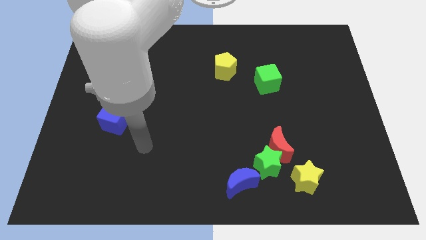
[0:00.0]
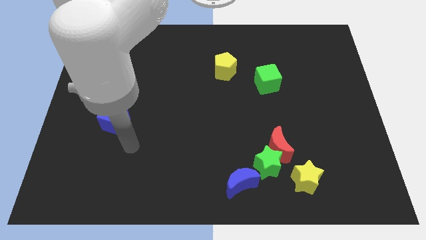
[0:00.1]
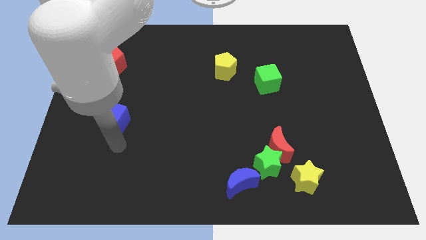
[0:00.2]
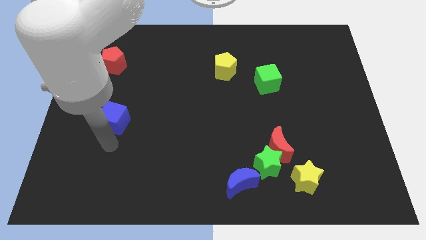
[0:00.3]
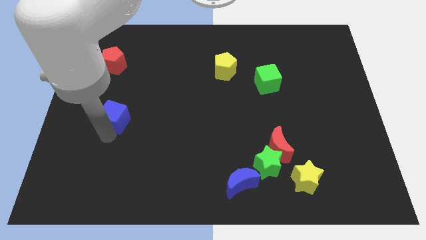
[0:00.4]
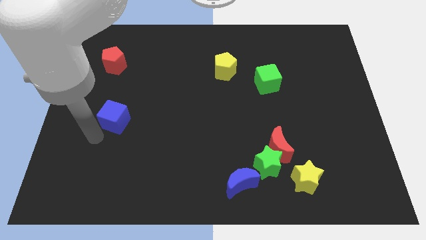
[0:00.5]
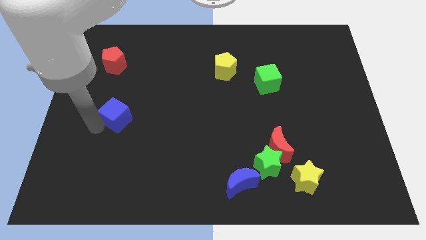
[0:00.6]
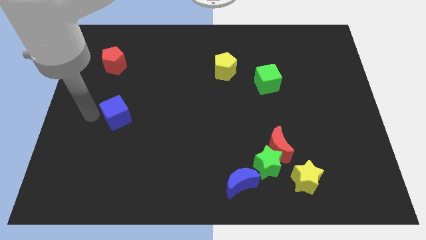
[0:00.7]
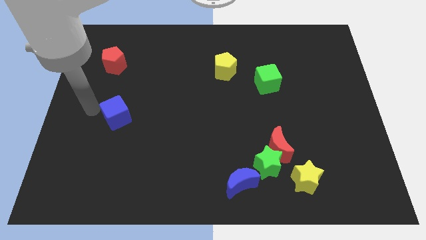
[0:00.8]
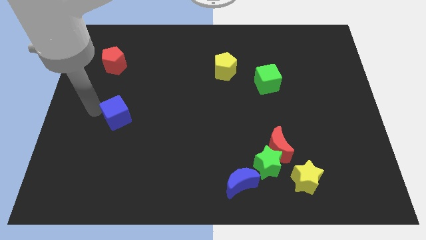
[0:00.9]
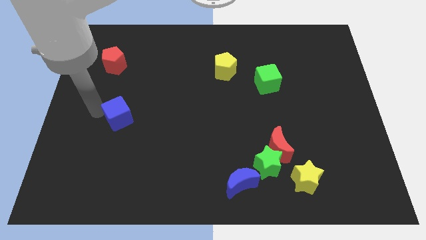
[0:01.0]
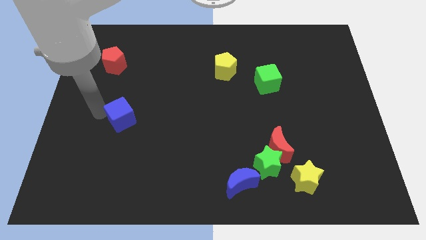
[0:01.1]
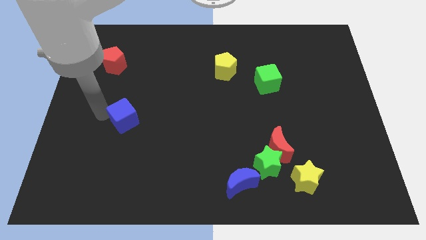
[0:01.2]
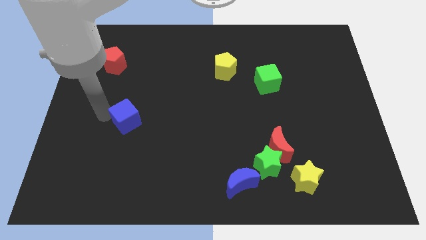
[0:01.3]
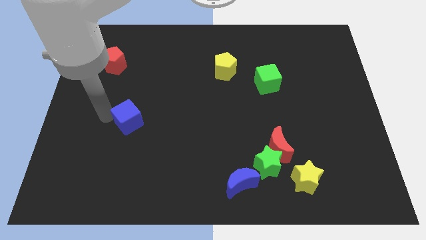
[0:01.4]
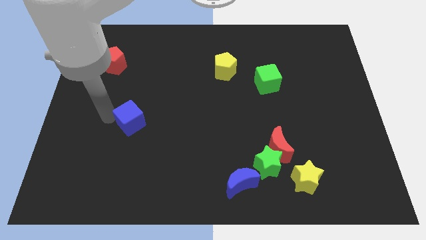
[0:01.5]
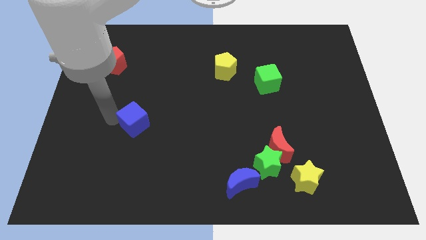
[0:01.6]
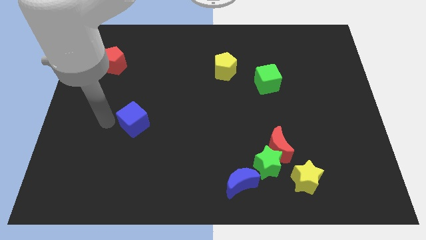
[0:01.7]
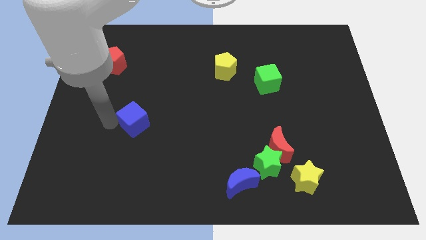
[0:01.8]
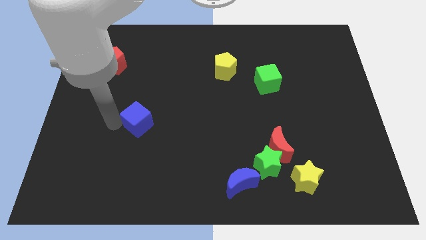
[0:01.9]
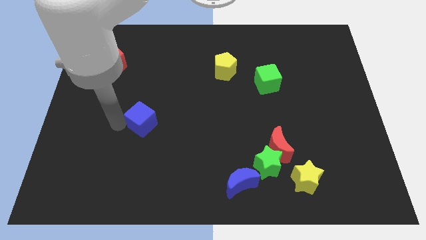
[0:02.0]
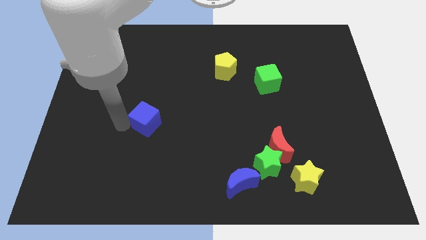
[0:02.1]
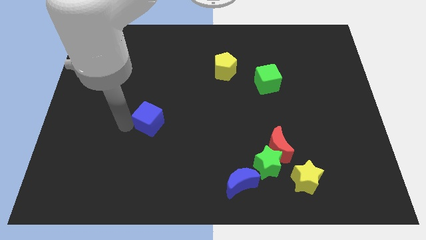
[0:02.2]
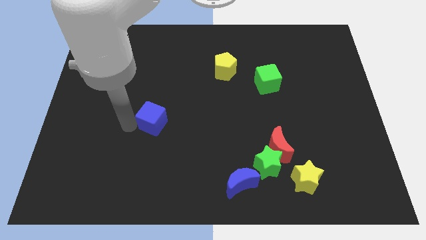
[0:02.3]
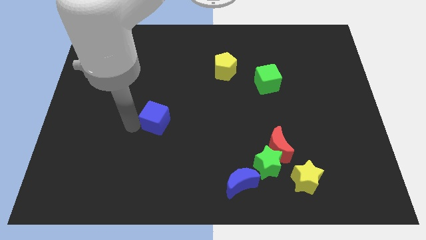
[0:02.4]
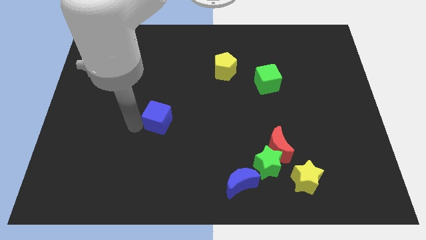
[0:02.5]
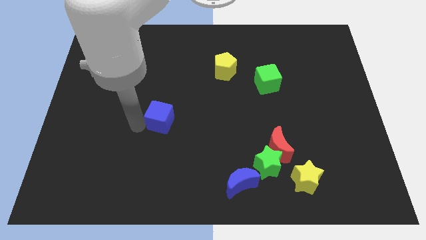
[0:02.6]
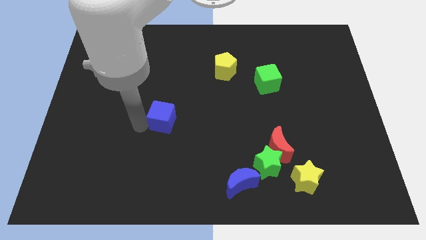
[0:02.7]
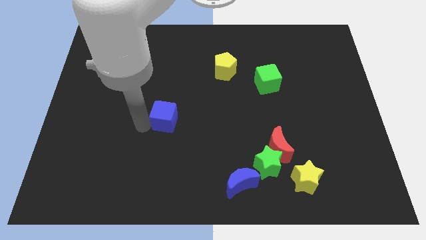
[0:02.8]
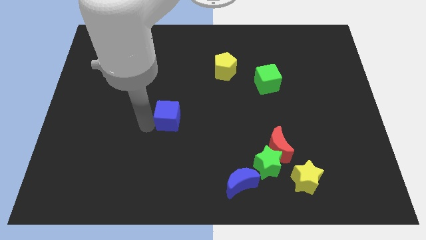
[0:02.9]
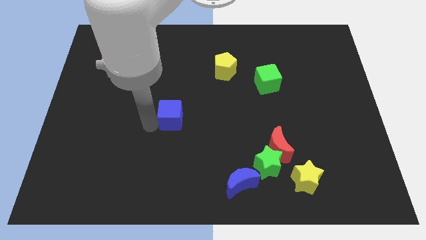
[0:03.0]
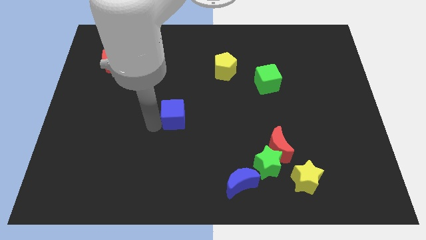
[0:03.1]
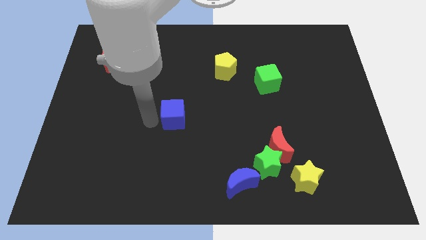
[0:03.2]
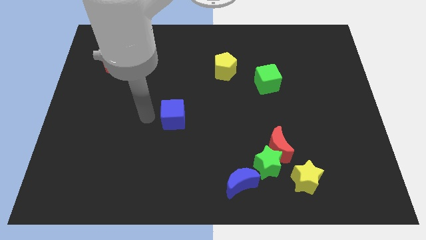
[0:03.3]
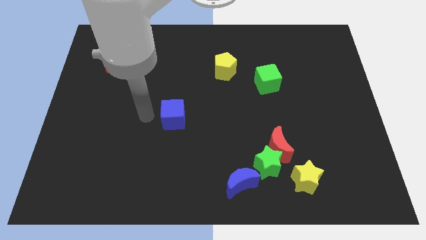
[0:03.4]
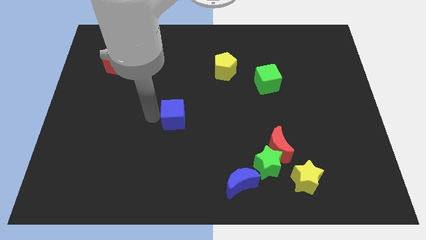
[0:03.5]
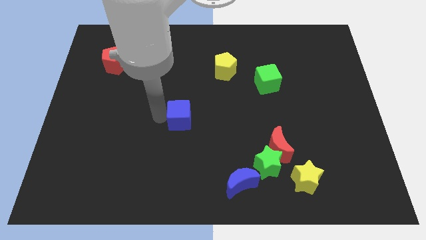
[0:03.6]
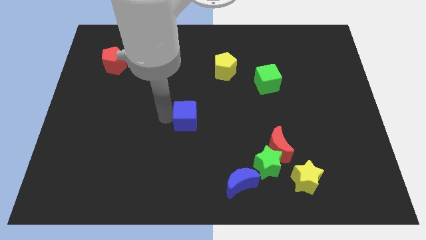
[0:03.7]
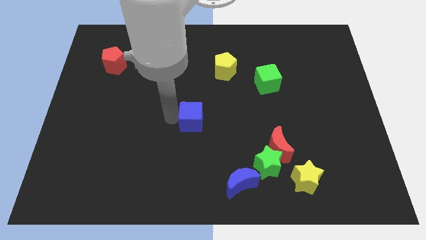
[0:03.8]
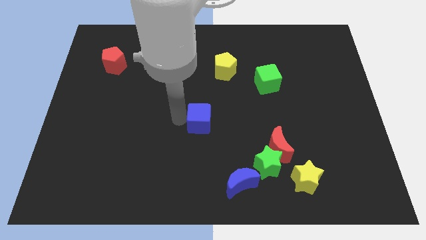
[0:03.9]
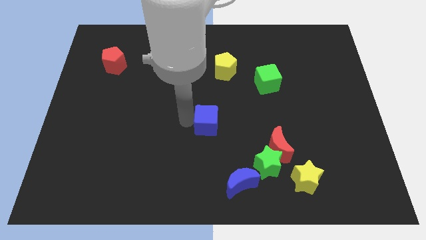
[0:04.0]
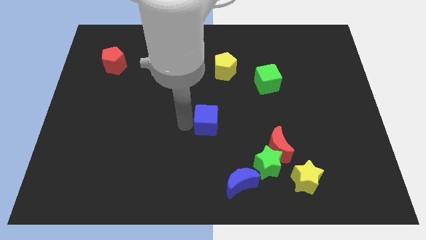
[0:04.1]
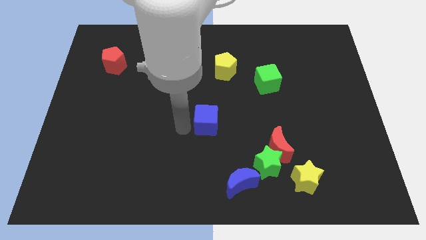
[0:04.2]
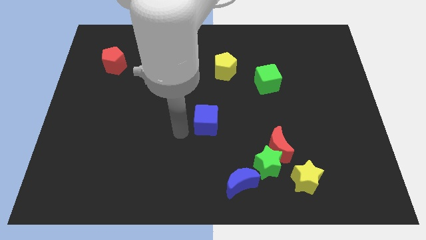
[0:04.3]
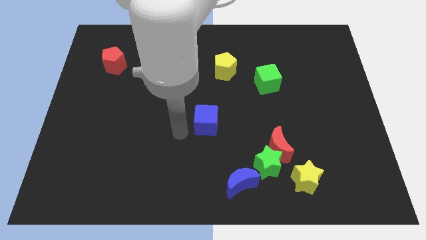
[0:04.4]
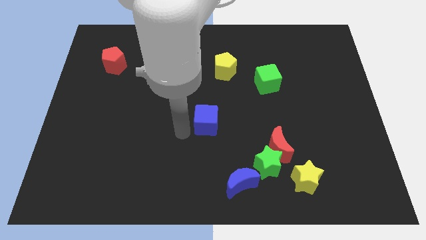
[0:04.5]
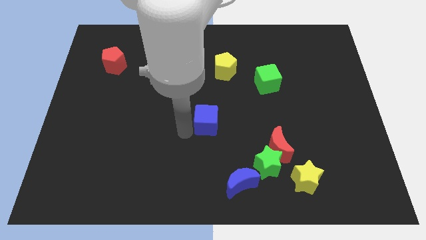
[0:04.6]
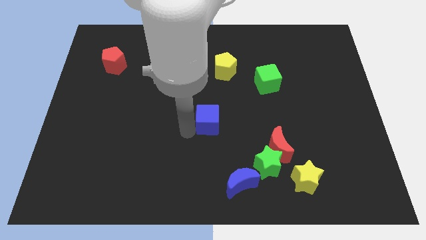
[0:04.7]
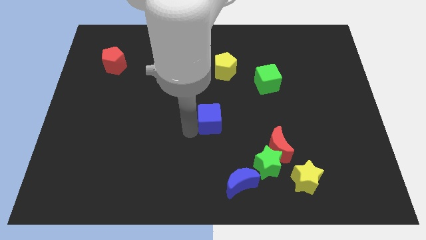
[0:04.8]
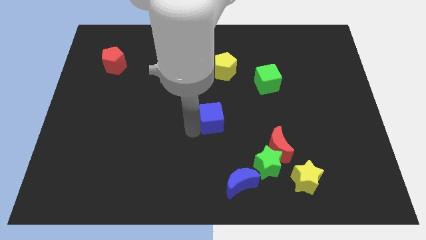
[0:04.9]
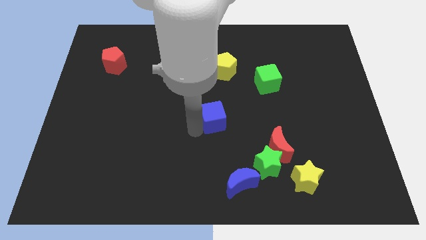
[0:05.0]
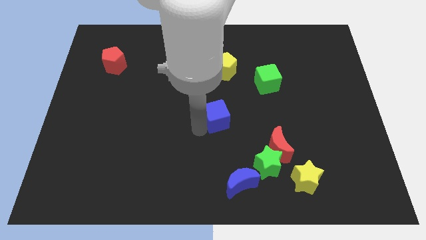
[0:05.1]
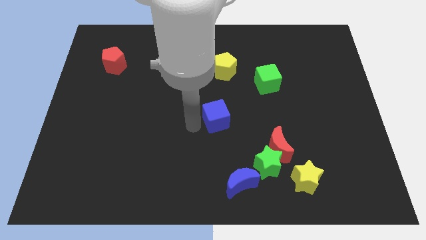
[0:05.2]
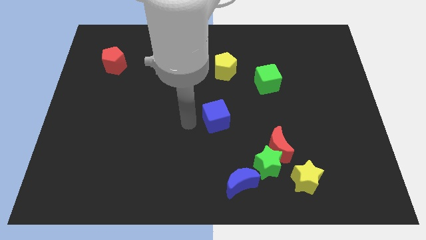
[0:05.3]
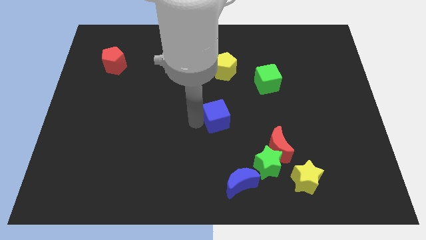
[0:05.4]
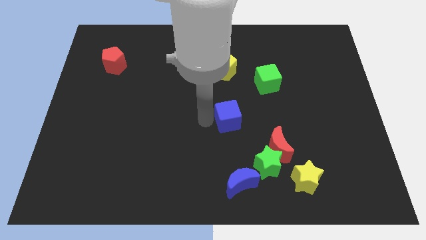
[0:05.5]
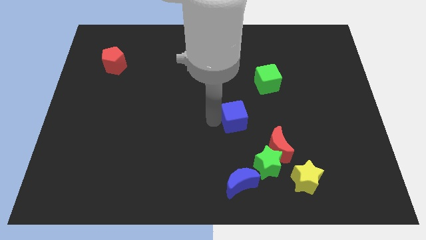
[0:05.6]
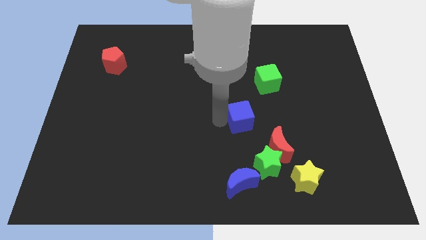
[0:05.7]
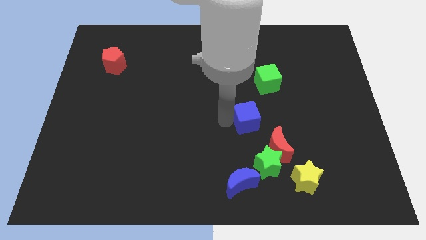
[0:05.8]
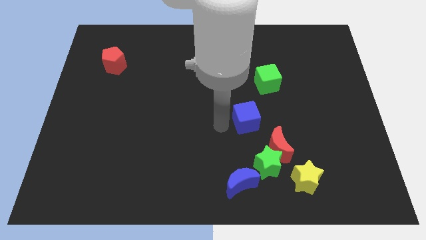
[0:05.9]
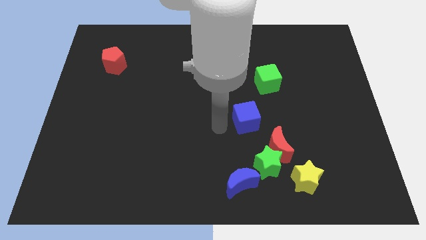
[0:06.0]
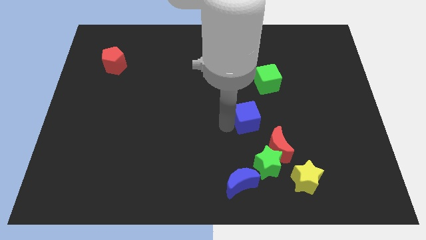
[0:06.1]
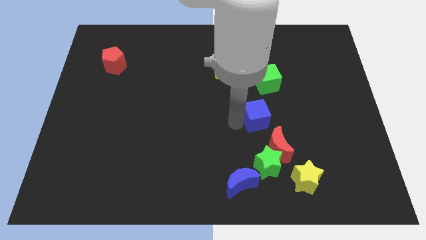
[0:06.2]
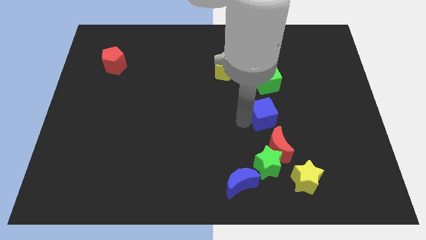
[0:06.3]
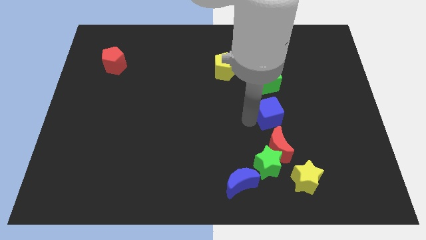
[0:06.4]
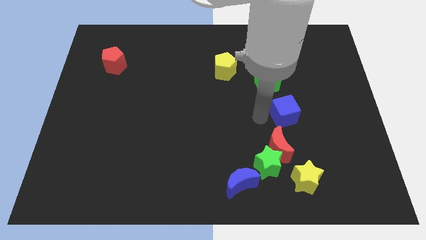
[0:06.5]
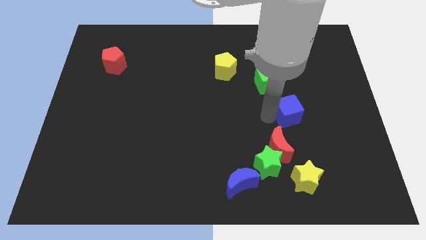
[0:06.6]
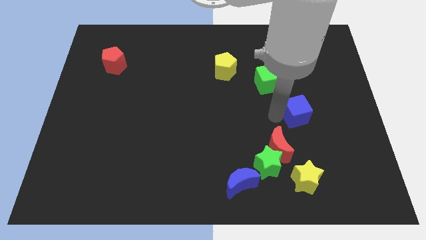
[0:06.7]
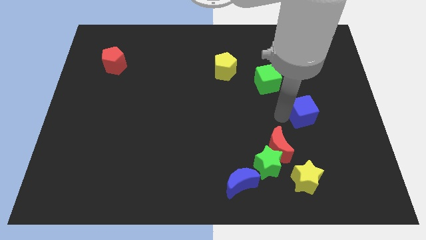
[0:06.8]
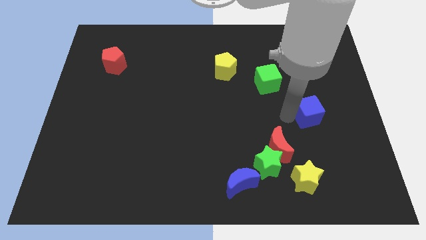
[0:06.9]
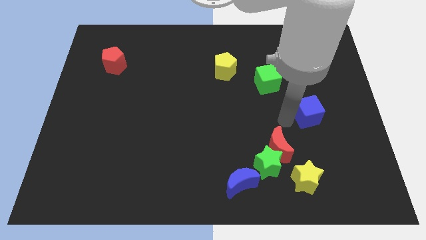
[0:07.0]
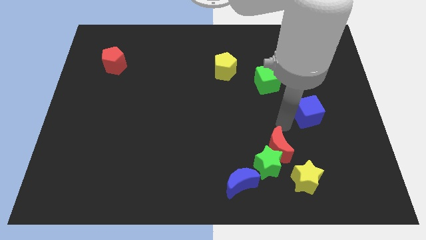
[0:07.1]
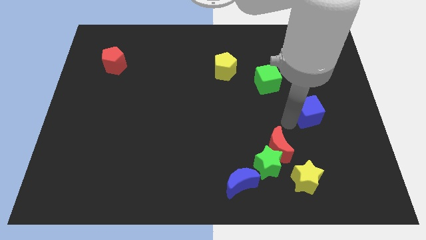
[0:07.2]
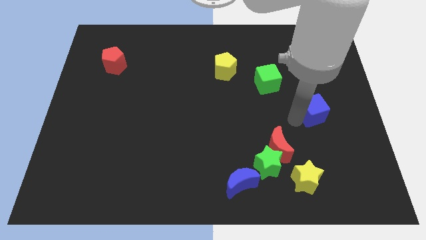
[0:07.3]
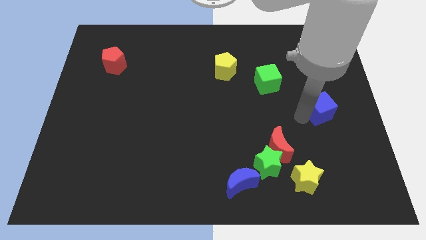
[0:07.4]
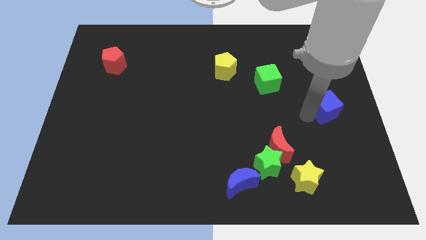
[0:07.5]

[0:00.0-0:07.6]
push the blue cube to the center right
